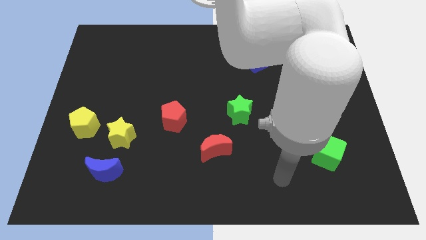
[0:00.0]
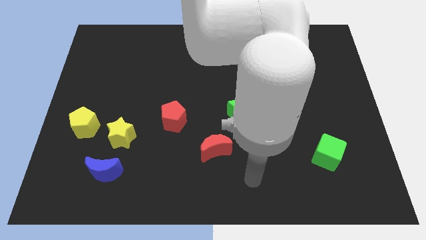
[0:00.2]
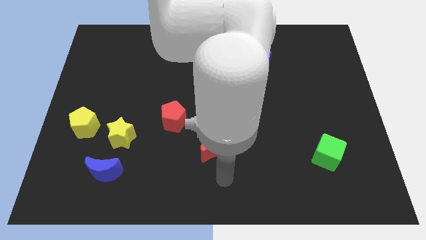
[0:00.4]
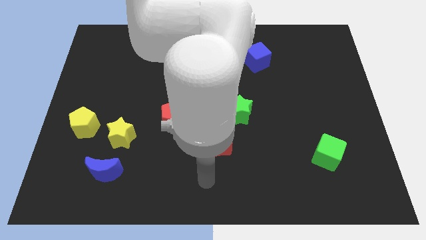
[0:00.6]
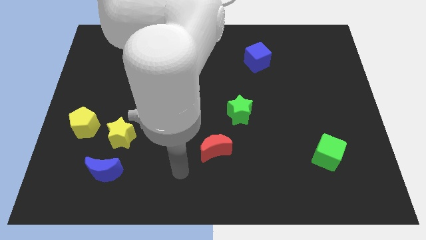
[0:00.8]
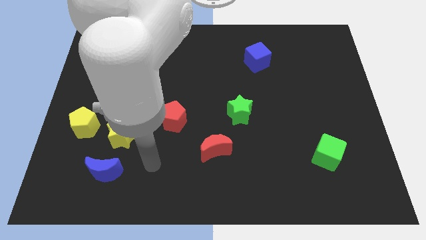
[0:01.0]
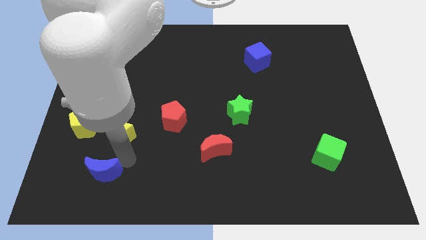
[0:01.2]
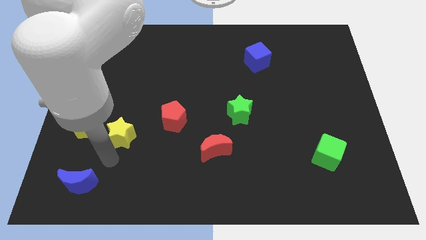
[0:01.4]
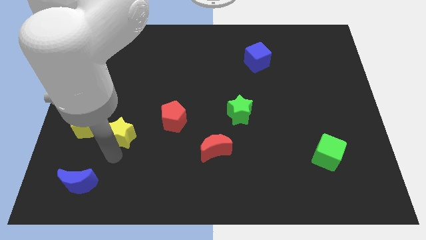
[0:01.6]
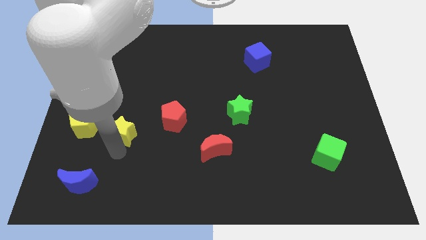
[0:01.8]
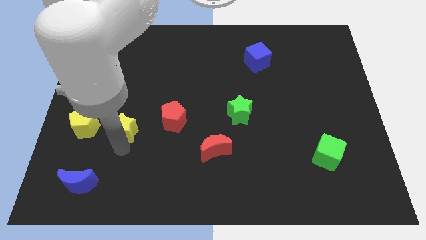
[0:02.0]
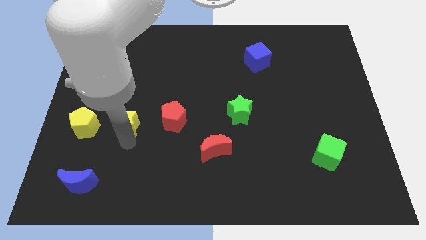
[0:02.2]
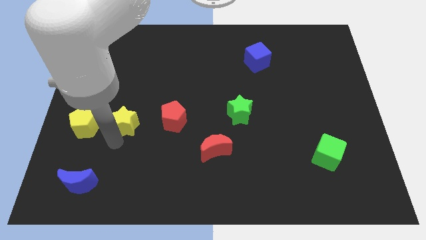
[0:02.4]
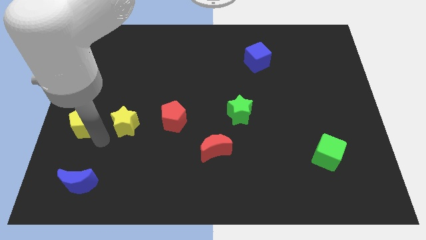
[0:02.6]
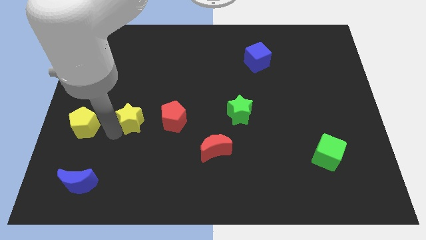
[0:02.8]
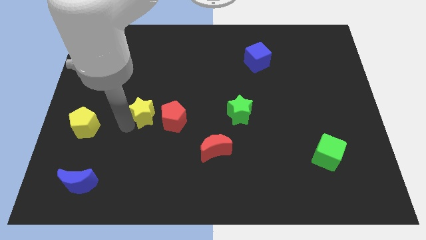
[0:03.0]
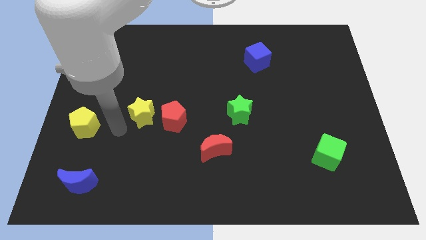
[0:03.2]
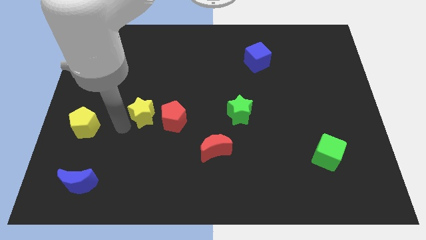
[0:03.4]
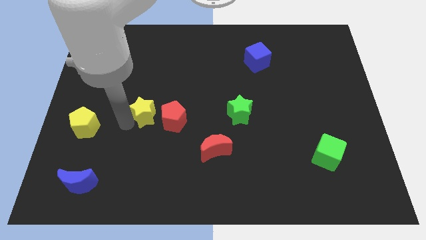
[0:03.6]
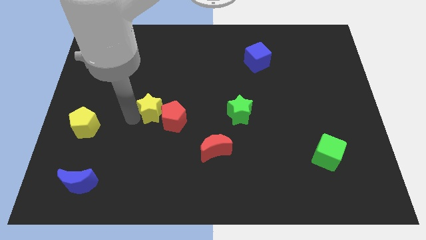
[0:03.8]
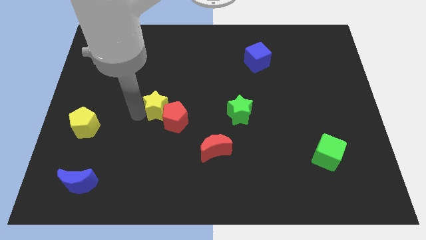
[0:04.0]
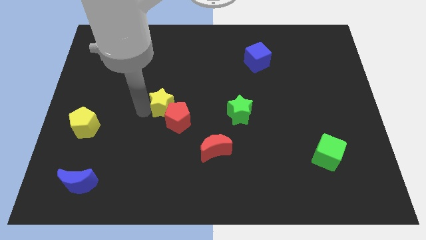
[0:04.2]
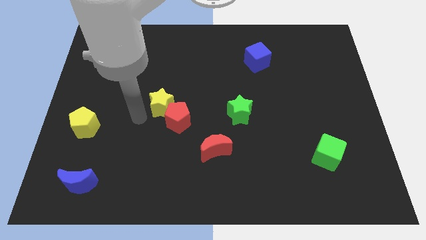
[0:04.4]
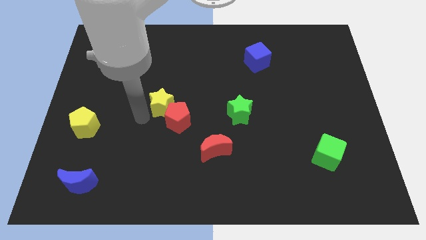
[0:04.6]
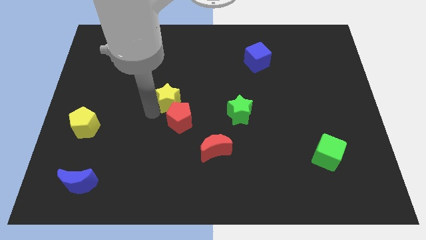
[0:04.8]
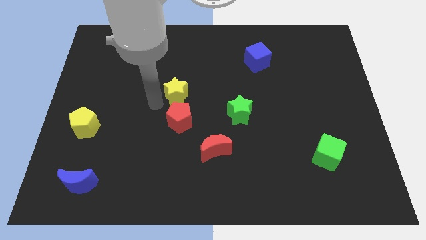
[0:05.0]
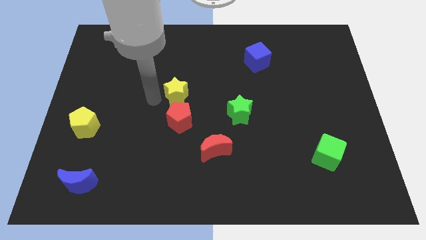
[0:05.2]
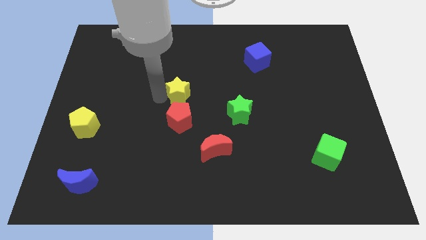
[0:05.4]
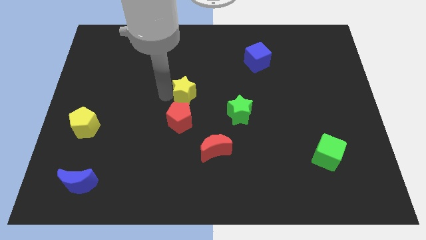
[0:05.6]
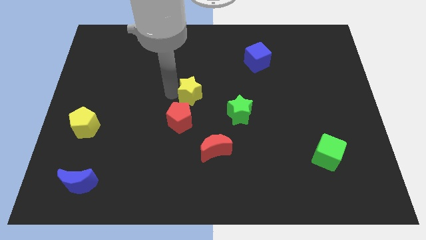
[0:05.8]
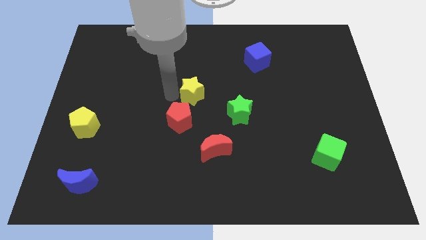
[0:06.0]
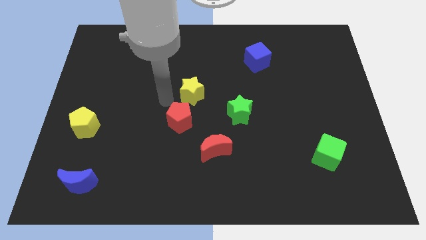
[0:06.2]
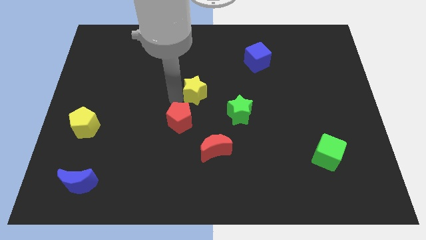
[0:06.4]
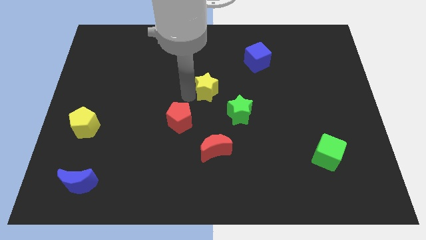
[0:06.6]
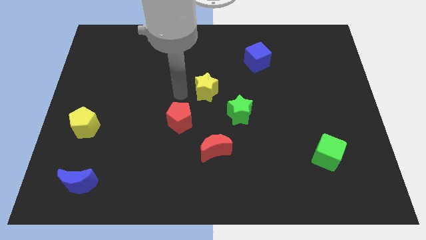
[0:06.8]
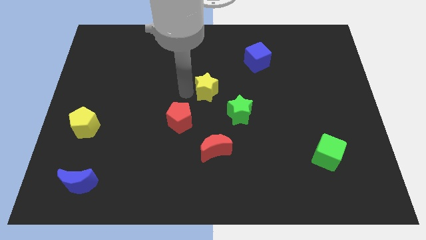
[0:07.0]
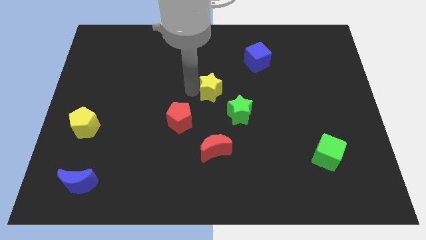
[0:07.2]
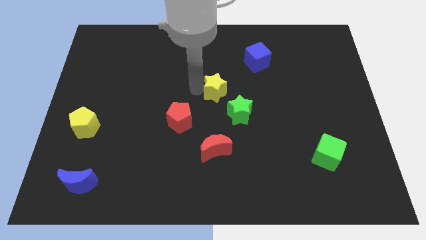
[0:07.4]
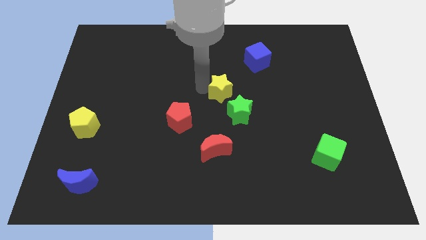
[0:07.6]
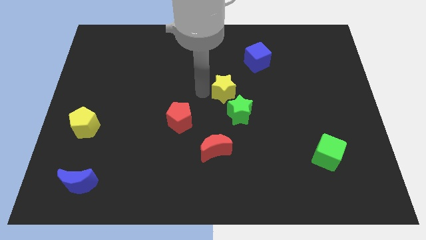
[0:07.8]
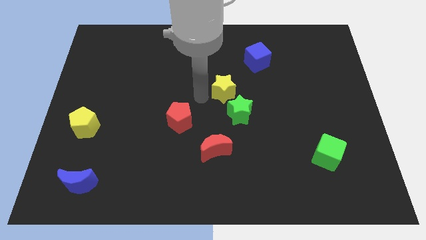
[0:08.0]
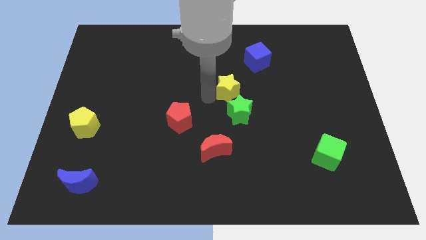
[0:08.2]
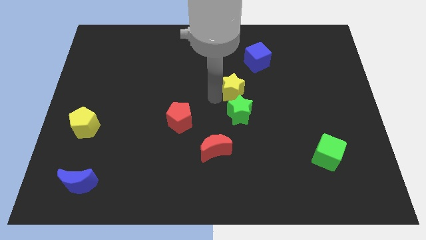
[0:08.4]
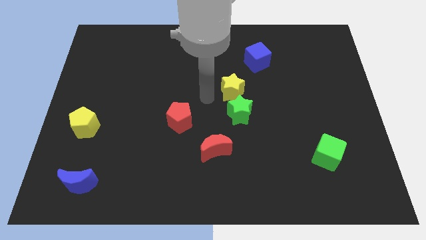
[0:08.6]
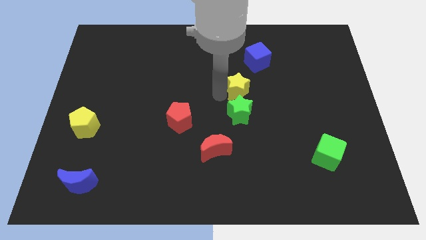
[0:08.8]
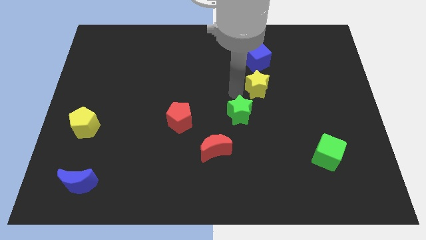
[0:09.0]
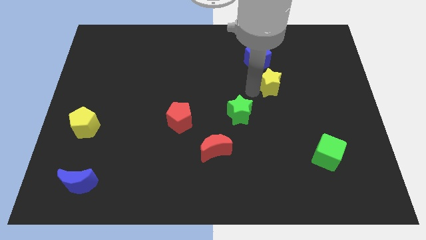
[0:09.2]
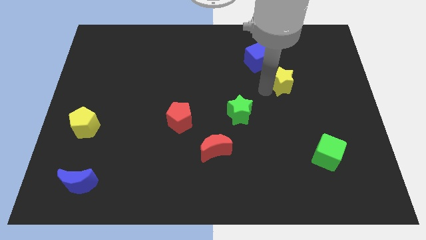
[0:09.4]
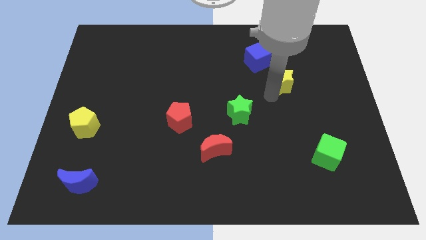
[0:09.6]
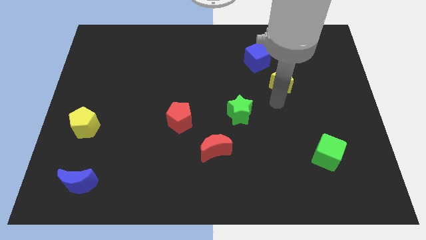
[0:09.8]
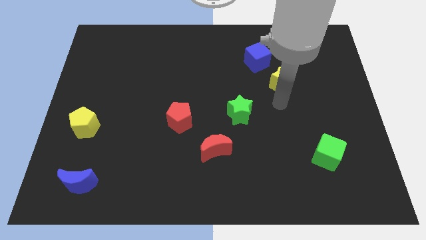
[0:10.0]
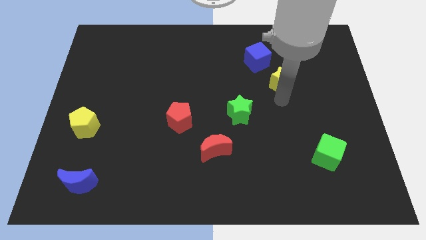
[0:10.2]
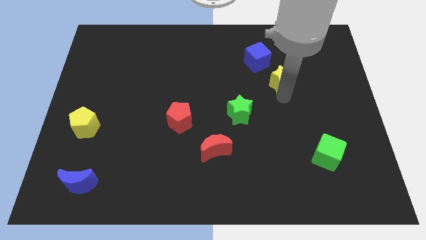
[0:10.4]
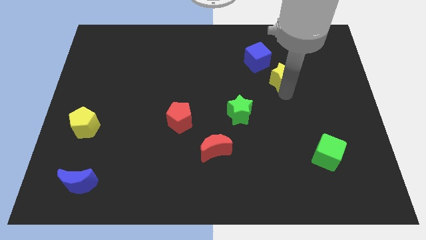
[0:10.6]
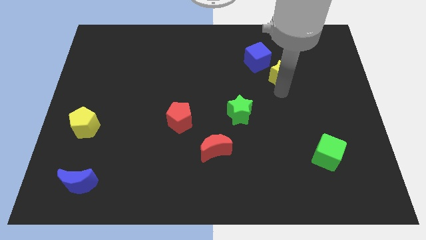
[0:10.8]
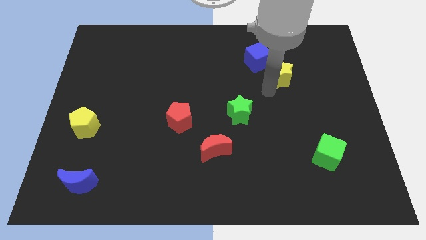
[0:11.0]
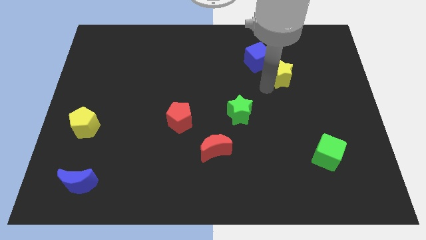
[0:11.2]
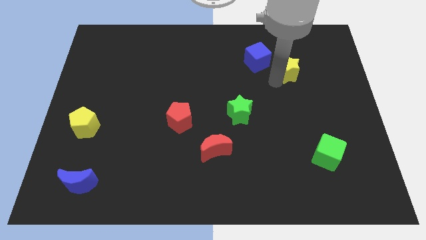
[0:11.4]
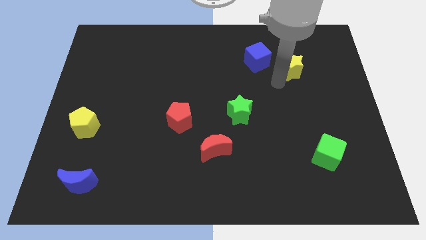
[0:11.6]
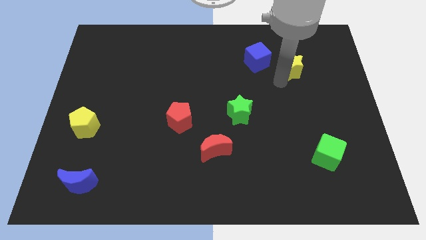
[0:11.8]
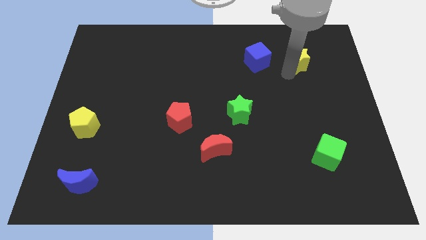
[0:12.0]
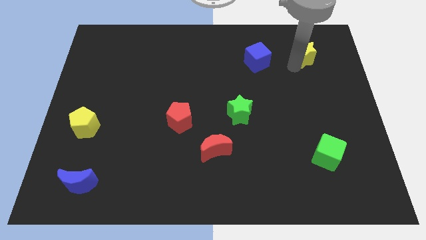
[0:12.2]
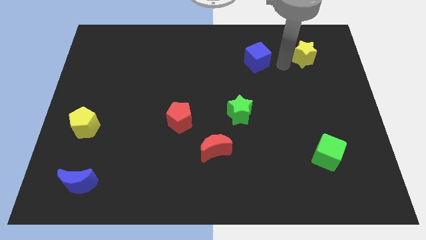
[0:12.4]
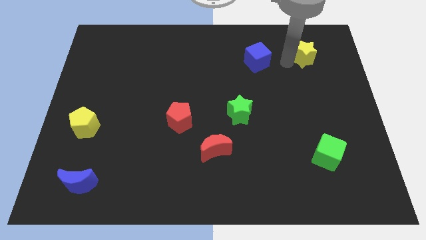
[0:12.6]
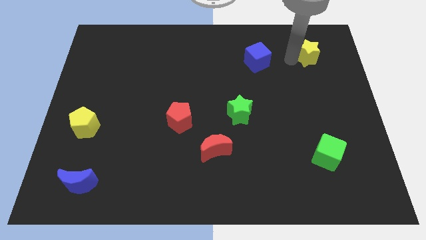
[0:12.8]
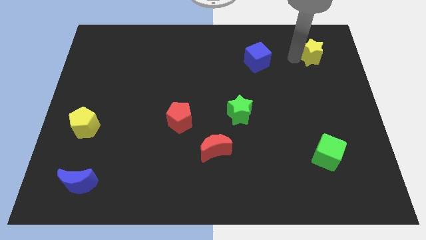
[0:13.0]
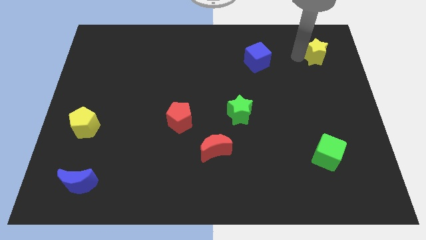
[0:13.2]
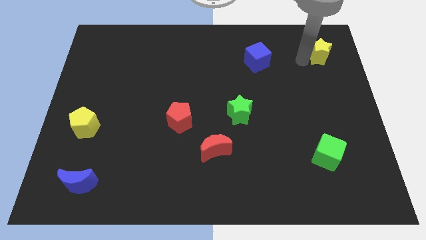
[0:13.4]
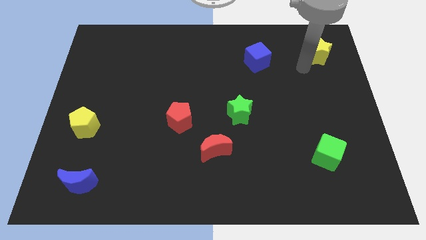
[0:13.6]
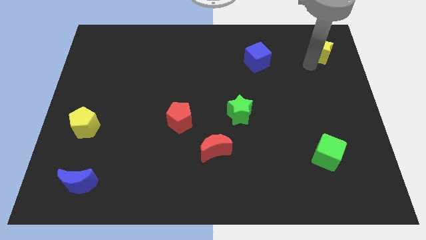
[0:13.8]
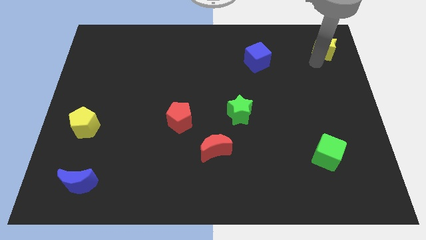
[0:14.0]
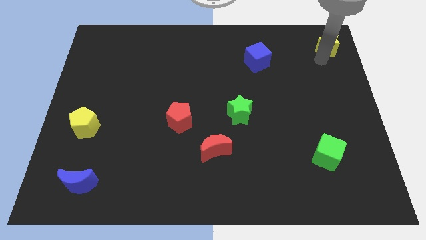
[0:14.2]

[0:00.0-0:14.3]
slide the yellow star to the top right corner
